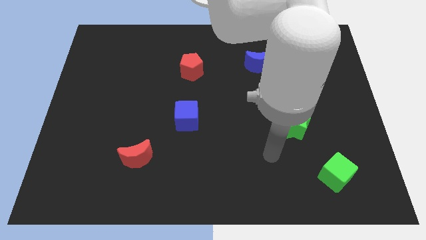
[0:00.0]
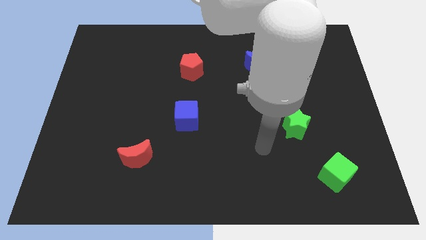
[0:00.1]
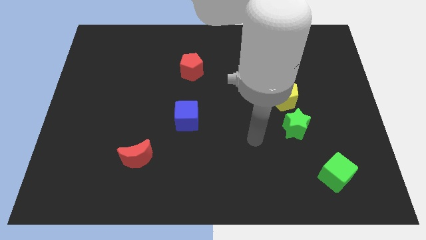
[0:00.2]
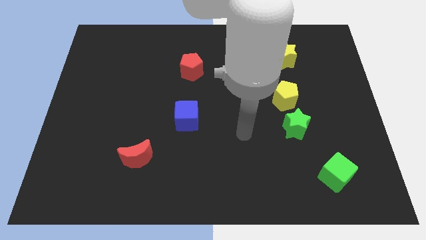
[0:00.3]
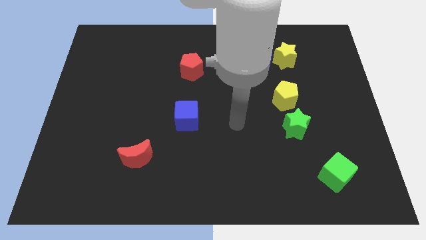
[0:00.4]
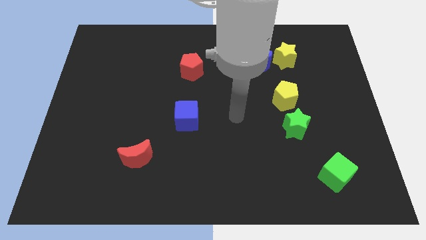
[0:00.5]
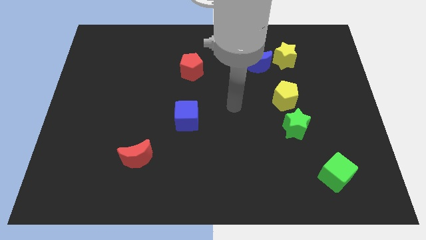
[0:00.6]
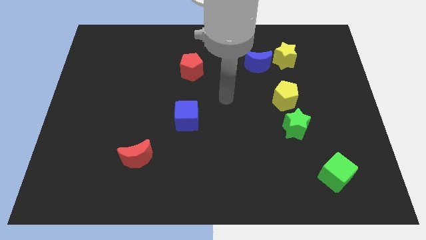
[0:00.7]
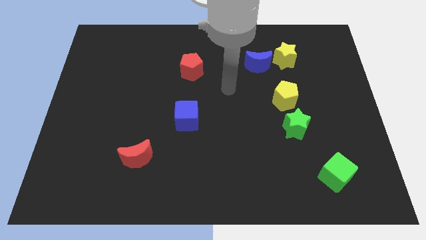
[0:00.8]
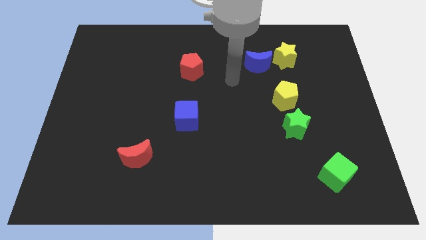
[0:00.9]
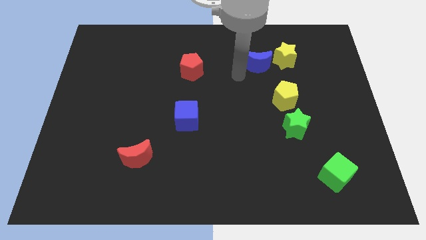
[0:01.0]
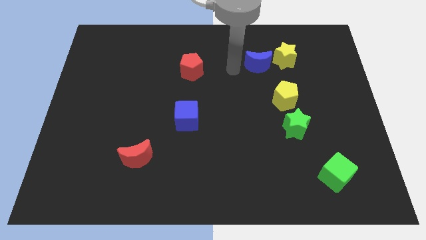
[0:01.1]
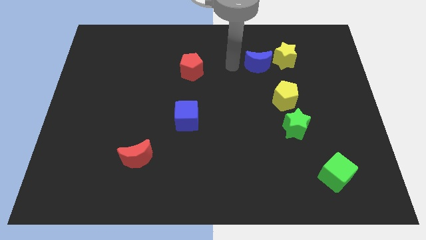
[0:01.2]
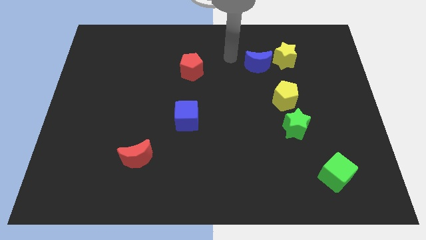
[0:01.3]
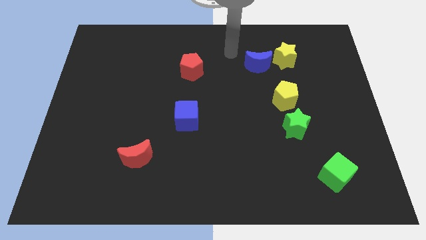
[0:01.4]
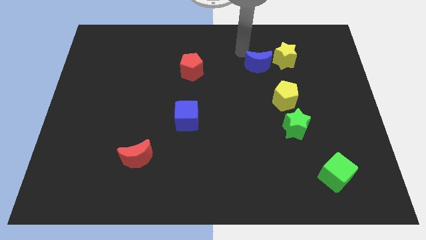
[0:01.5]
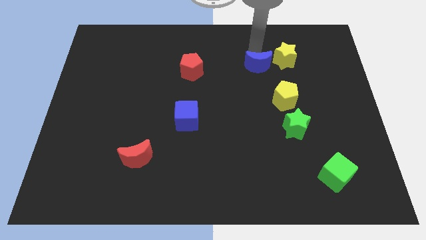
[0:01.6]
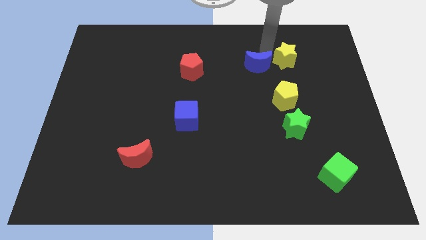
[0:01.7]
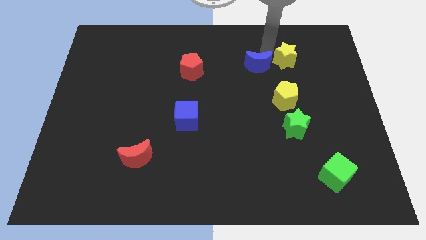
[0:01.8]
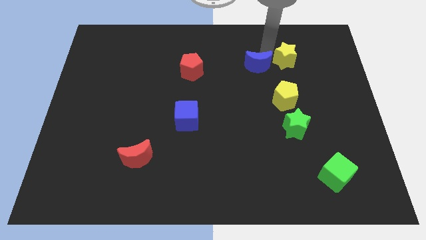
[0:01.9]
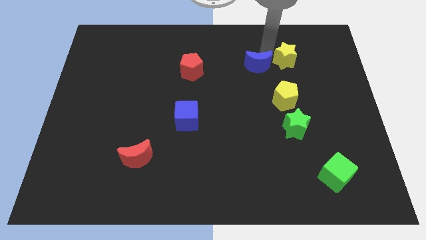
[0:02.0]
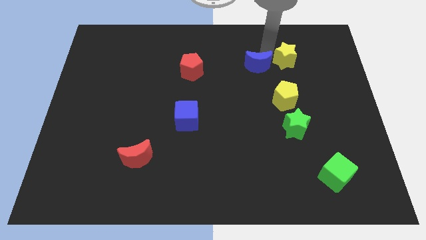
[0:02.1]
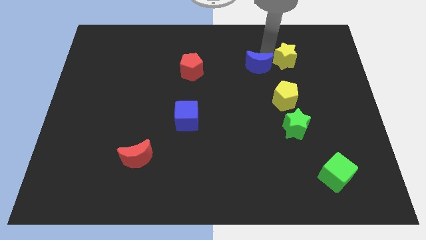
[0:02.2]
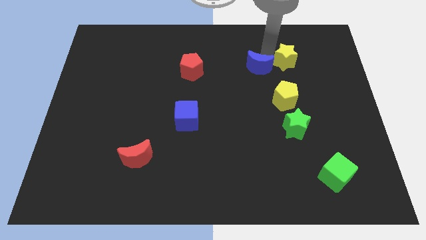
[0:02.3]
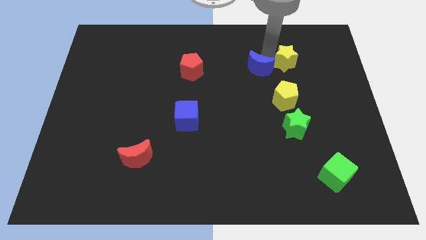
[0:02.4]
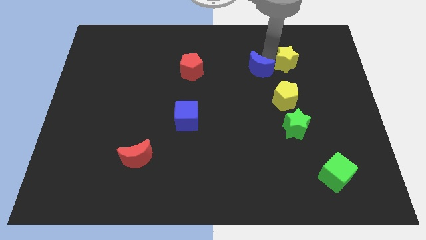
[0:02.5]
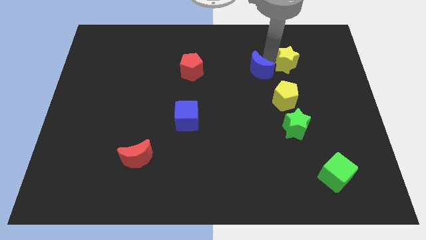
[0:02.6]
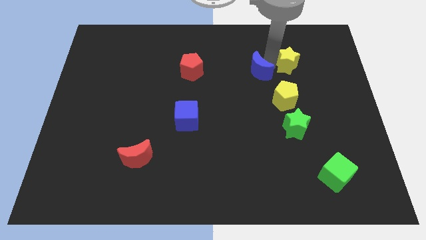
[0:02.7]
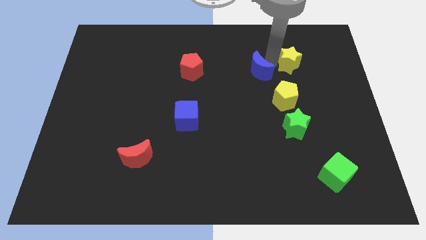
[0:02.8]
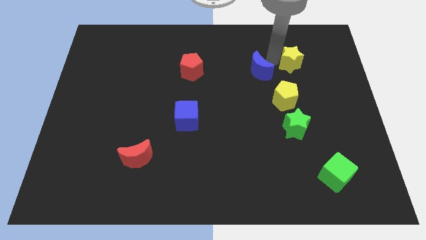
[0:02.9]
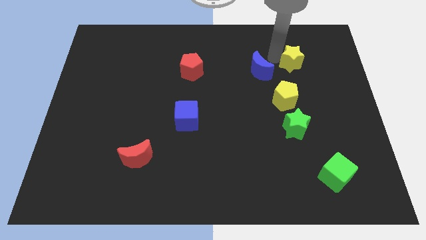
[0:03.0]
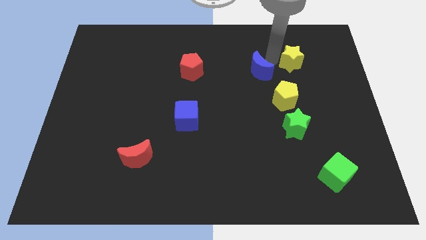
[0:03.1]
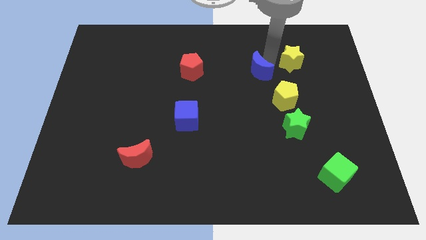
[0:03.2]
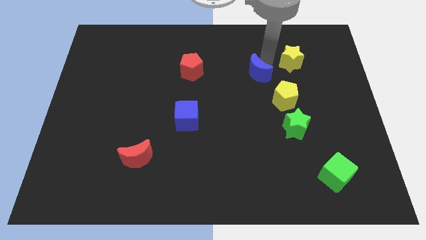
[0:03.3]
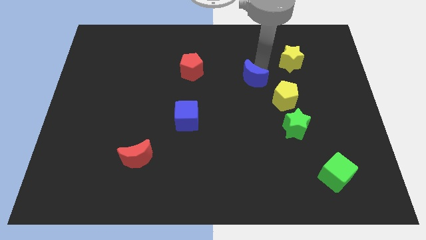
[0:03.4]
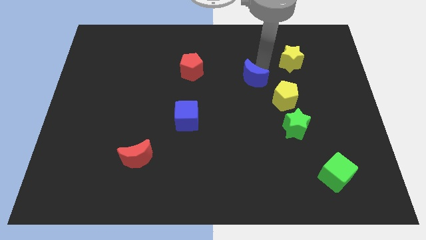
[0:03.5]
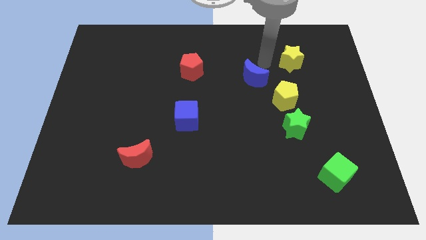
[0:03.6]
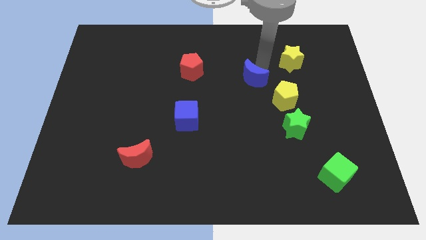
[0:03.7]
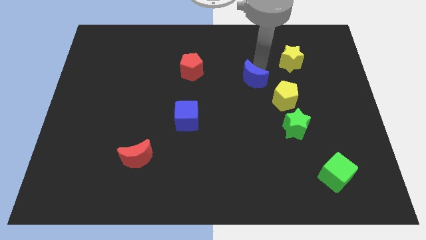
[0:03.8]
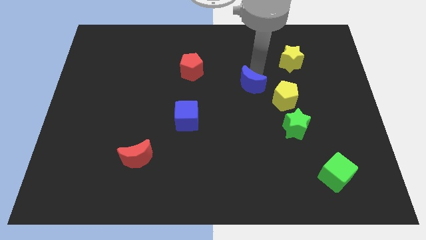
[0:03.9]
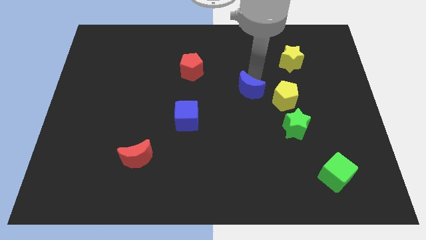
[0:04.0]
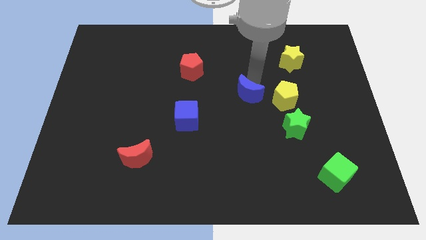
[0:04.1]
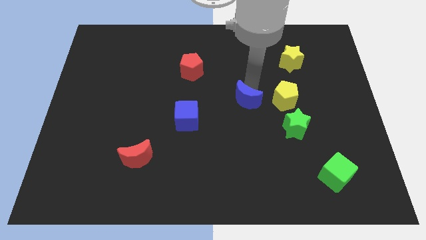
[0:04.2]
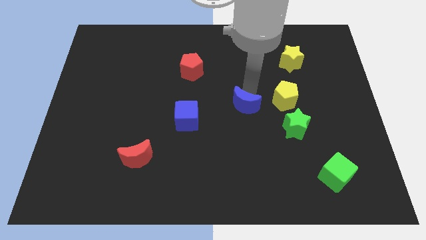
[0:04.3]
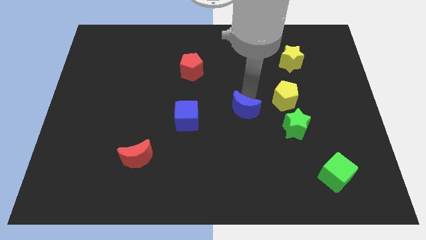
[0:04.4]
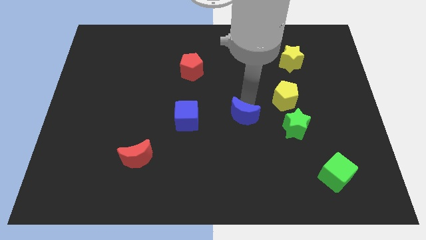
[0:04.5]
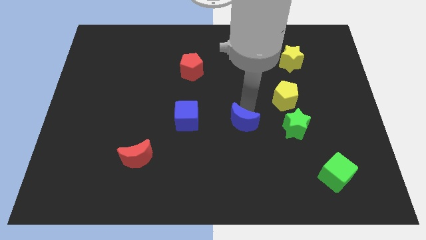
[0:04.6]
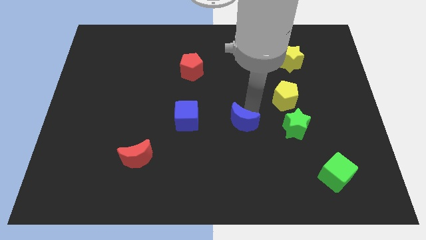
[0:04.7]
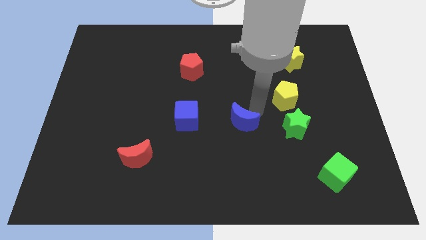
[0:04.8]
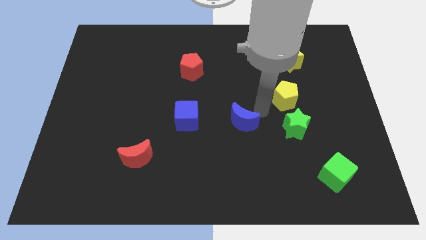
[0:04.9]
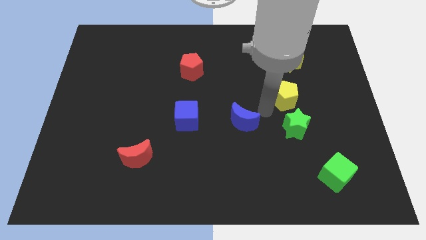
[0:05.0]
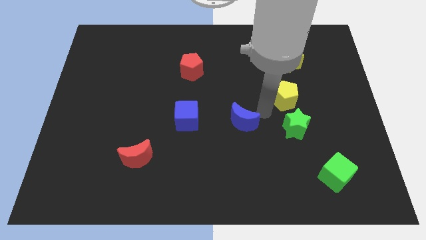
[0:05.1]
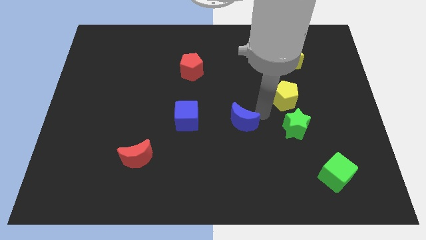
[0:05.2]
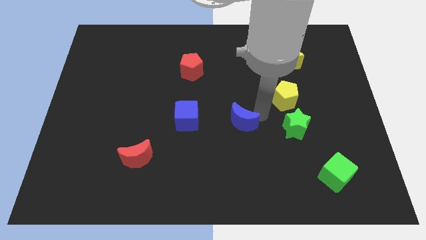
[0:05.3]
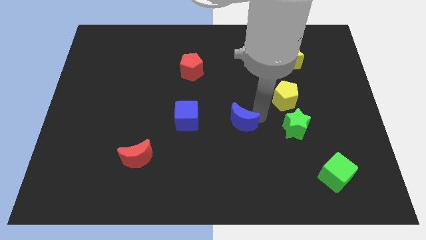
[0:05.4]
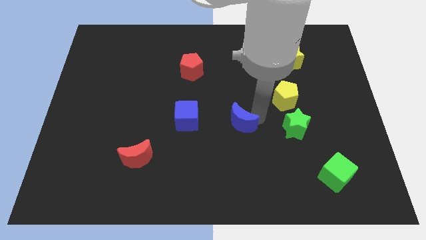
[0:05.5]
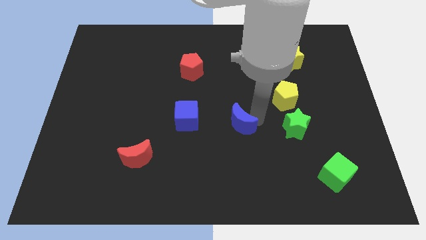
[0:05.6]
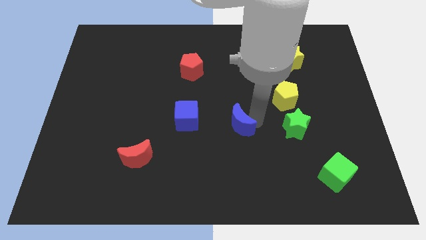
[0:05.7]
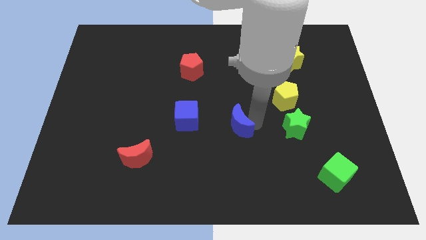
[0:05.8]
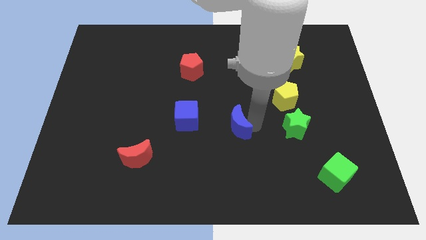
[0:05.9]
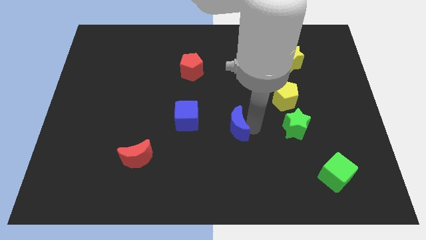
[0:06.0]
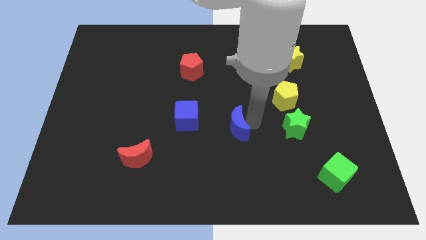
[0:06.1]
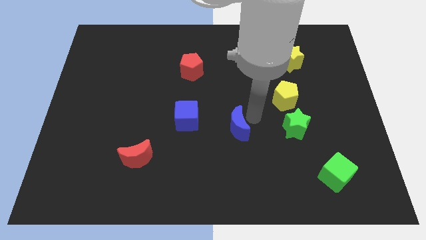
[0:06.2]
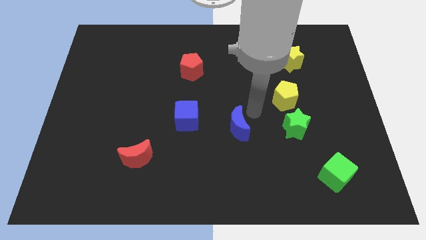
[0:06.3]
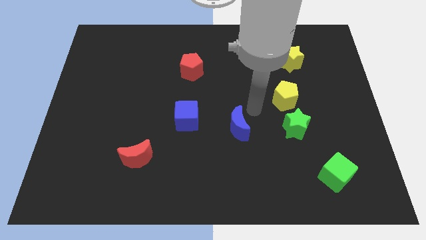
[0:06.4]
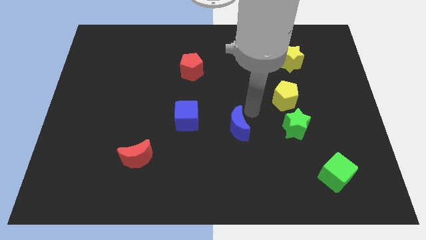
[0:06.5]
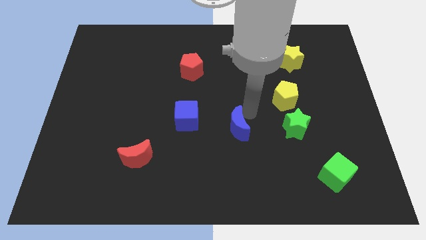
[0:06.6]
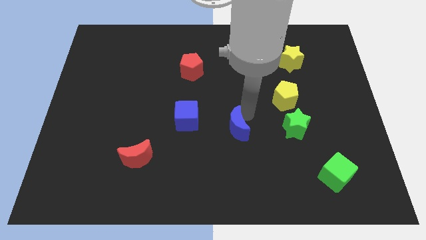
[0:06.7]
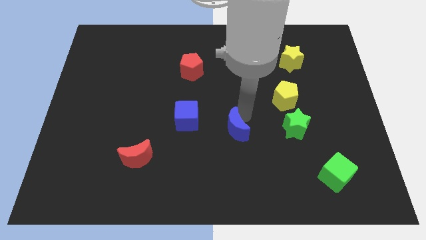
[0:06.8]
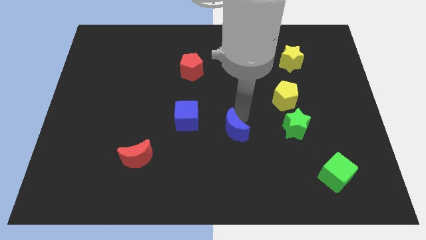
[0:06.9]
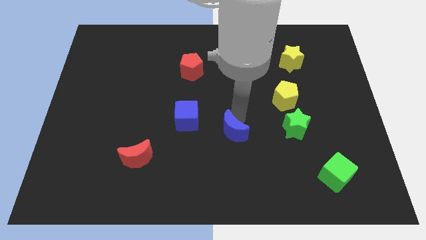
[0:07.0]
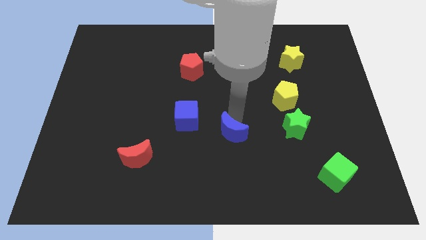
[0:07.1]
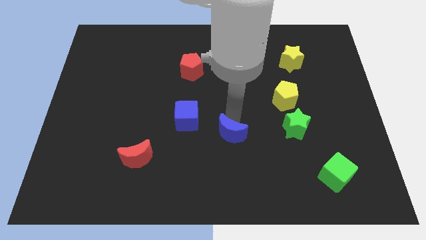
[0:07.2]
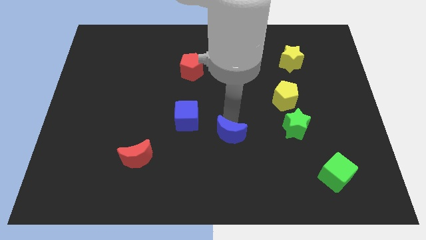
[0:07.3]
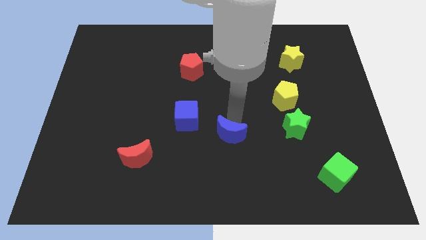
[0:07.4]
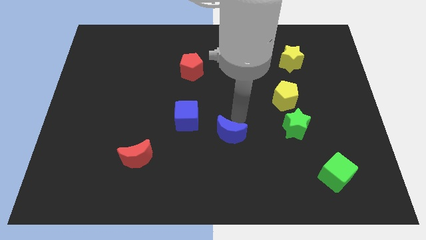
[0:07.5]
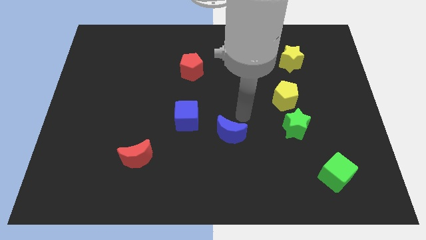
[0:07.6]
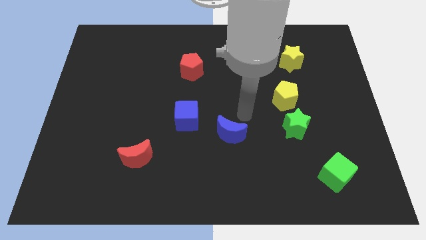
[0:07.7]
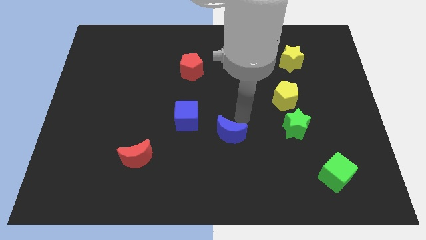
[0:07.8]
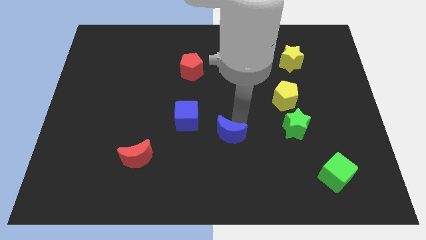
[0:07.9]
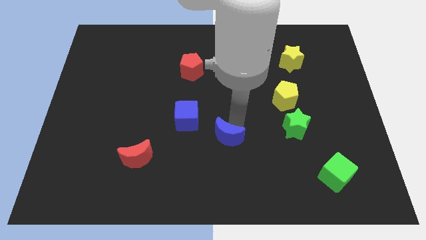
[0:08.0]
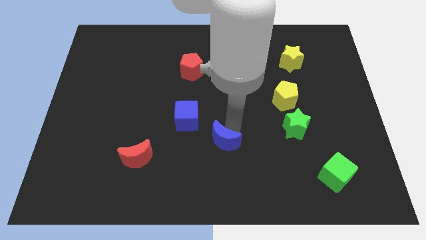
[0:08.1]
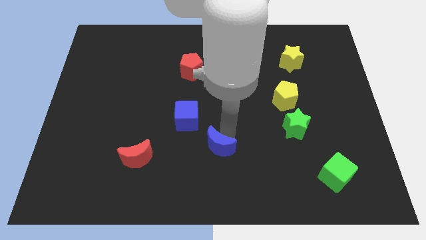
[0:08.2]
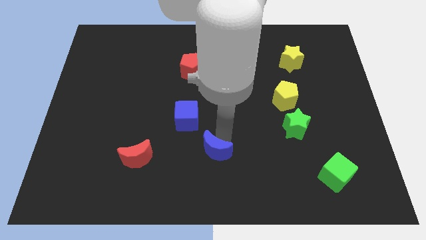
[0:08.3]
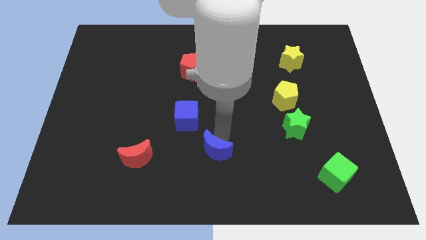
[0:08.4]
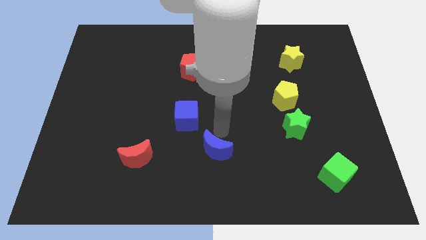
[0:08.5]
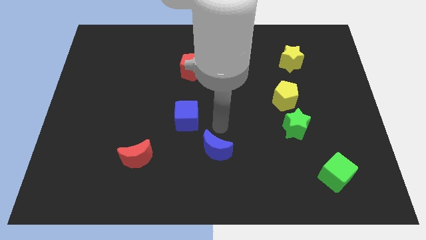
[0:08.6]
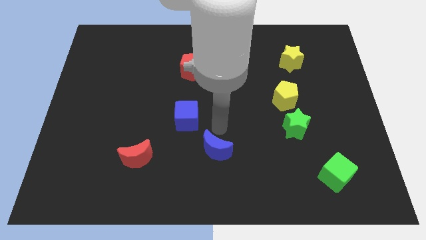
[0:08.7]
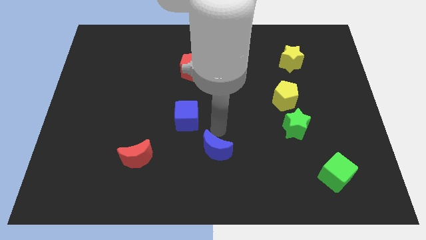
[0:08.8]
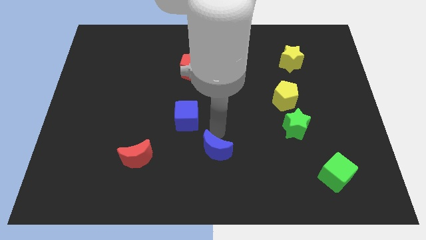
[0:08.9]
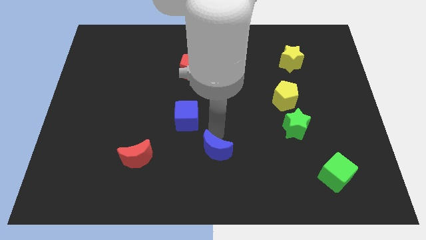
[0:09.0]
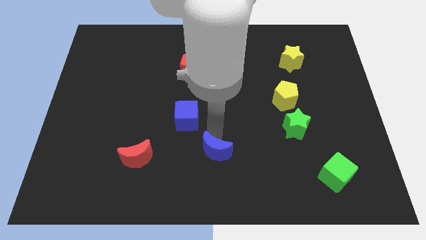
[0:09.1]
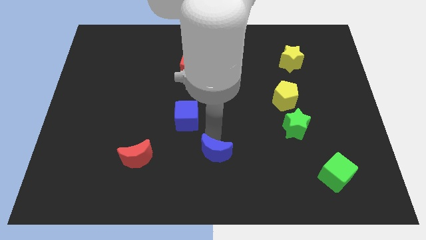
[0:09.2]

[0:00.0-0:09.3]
slide the blue moon to the bottom side
